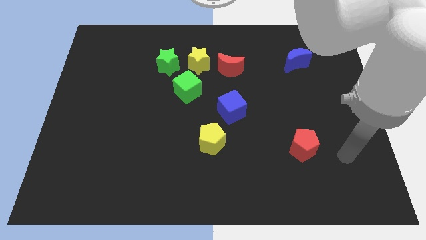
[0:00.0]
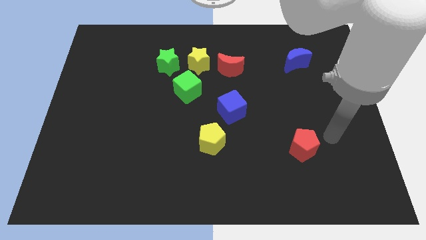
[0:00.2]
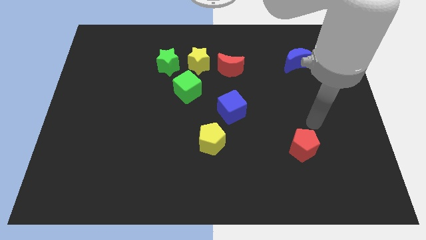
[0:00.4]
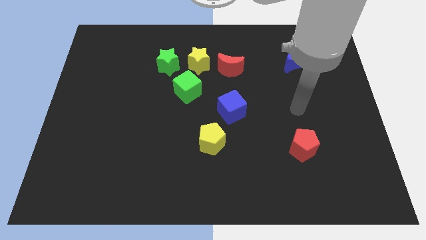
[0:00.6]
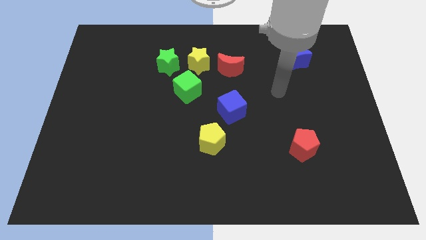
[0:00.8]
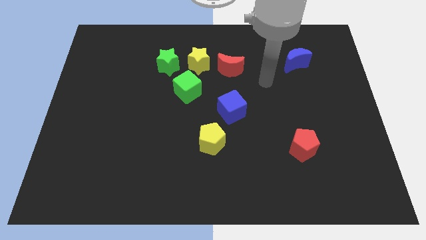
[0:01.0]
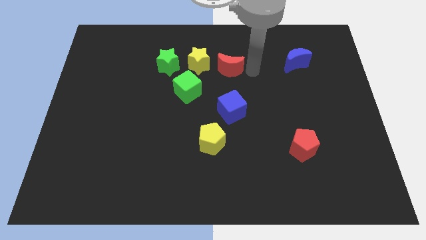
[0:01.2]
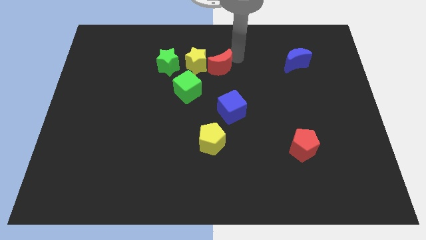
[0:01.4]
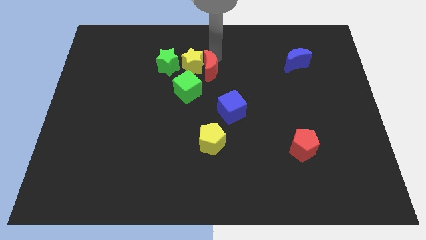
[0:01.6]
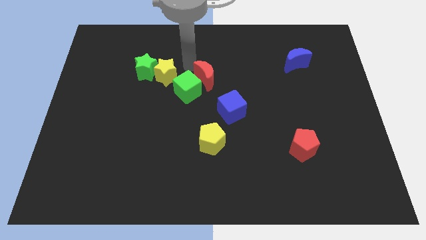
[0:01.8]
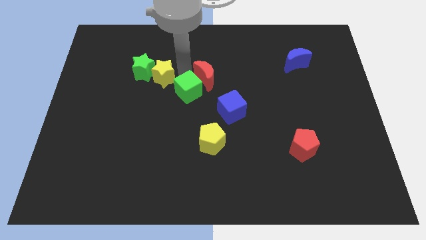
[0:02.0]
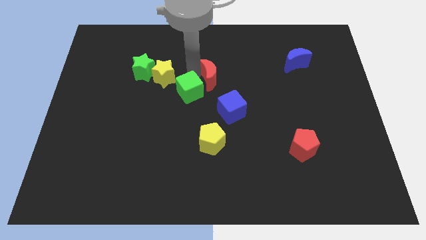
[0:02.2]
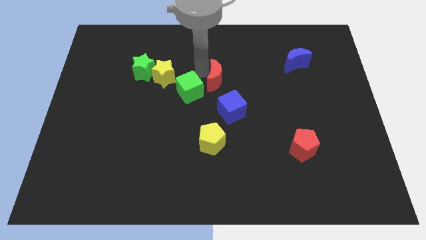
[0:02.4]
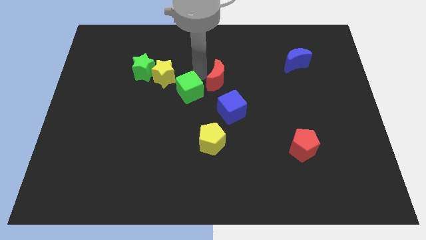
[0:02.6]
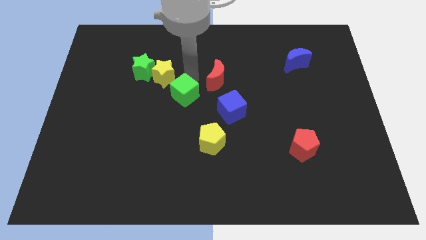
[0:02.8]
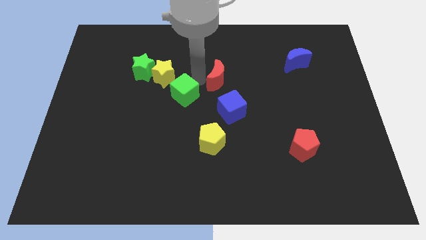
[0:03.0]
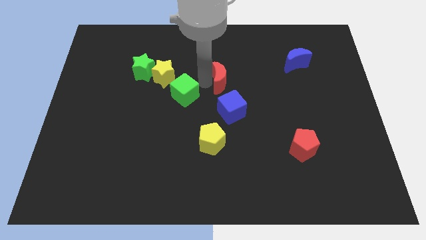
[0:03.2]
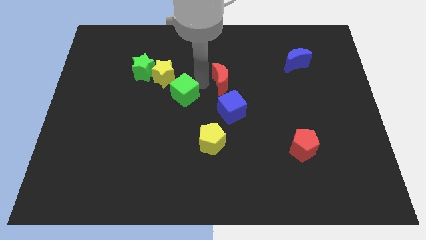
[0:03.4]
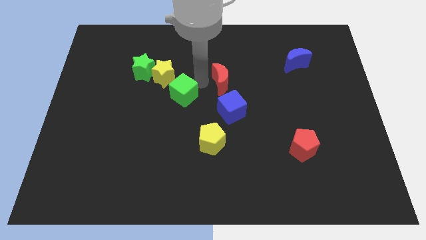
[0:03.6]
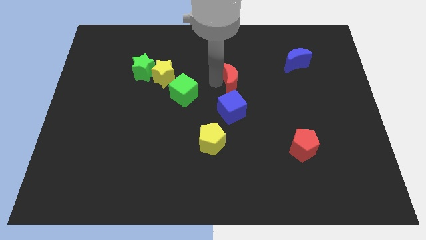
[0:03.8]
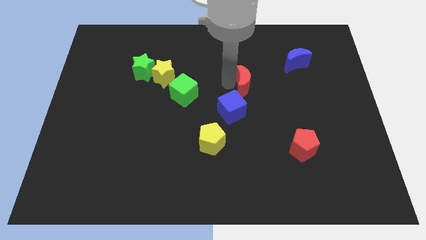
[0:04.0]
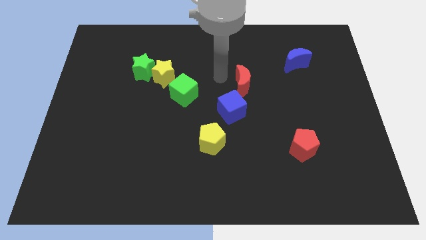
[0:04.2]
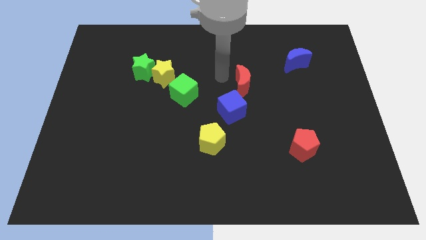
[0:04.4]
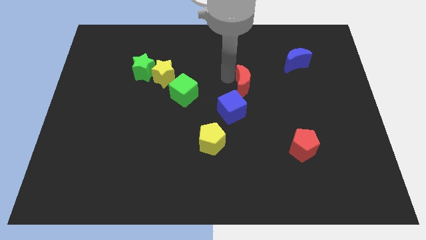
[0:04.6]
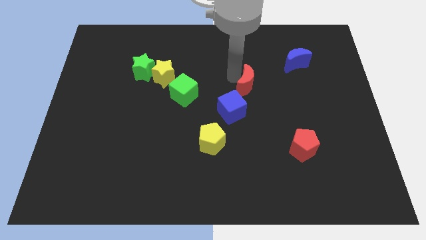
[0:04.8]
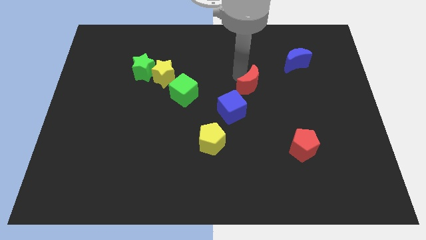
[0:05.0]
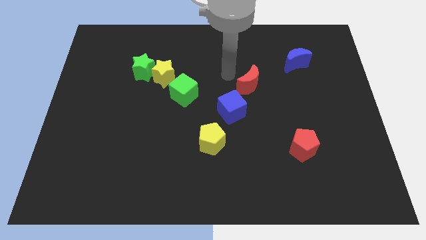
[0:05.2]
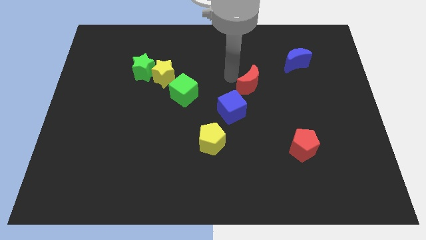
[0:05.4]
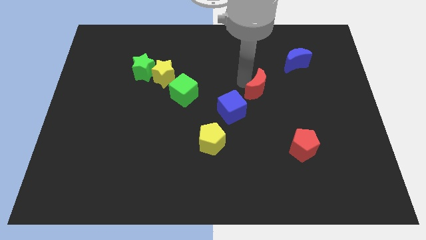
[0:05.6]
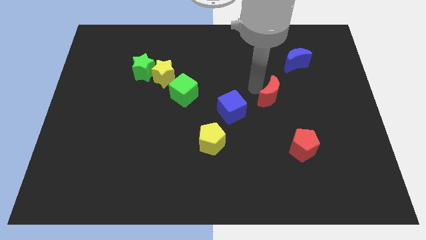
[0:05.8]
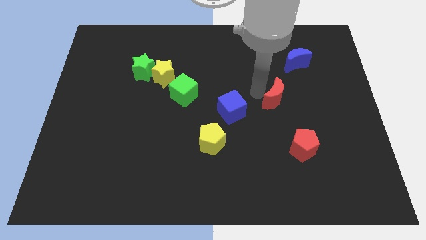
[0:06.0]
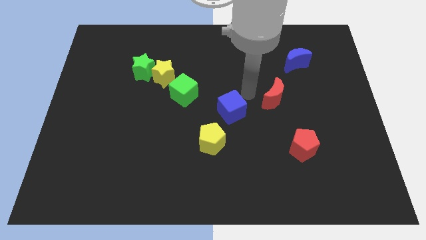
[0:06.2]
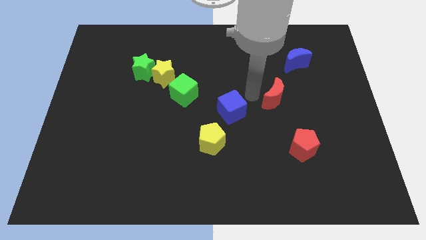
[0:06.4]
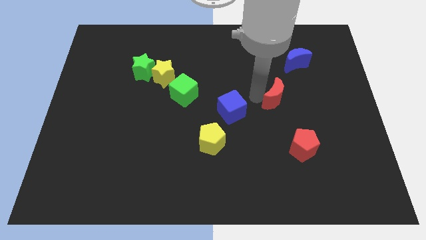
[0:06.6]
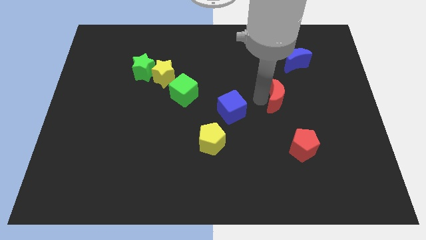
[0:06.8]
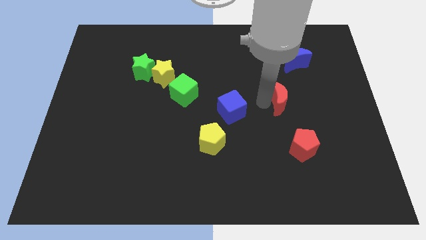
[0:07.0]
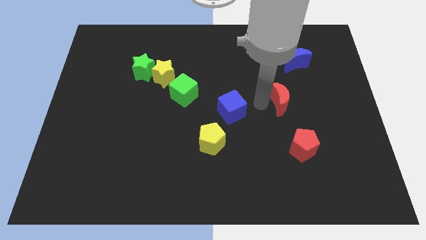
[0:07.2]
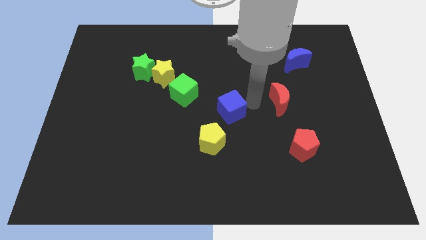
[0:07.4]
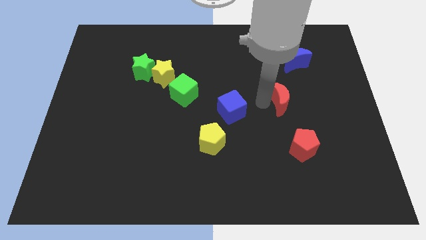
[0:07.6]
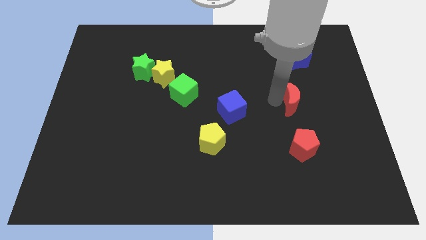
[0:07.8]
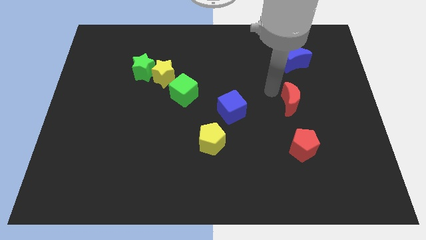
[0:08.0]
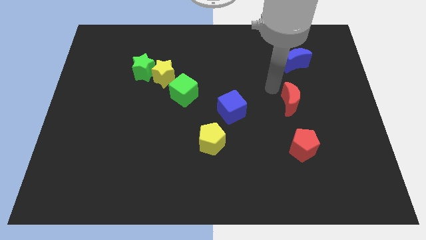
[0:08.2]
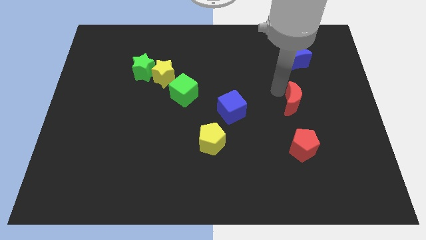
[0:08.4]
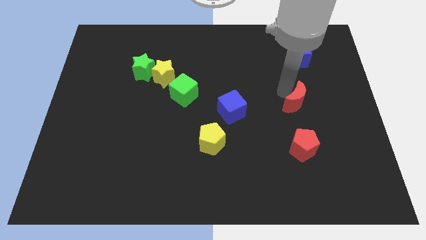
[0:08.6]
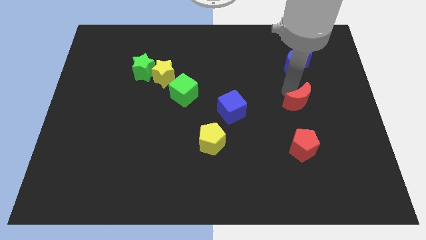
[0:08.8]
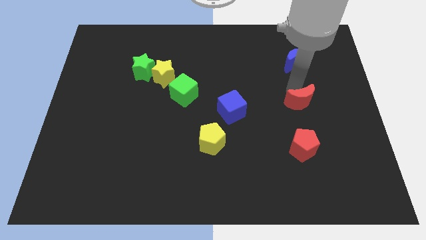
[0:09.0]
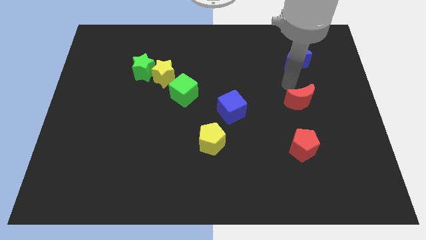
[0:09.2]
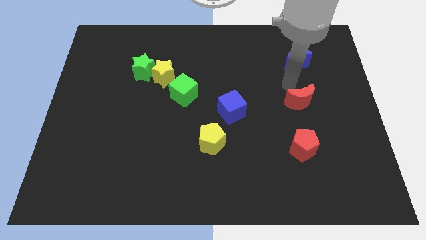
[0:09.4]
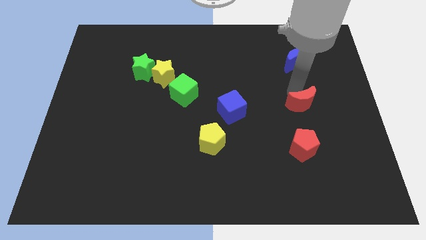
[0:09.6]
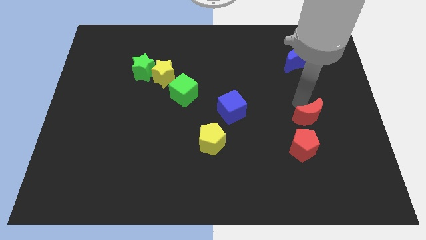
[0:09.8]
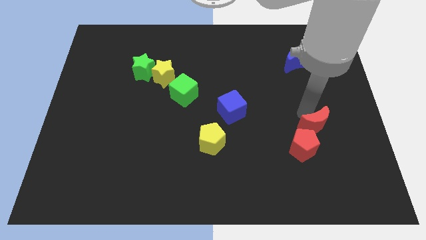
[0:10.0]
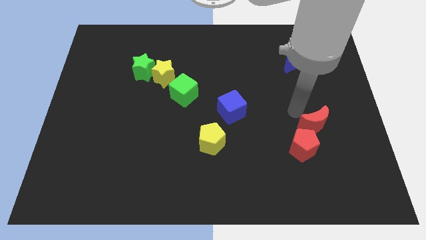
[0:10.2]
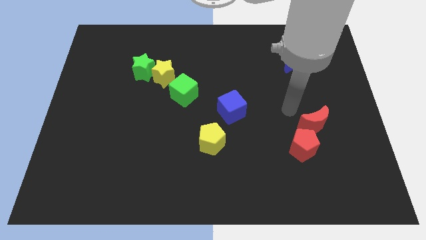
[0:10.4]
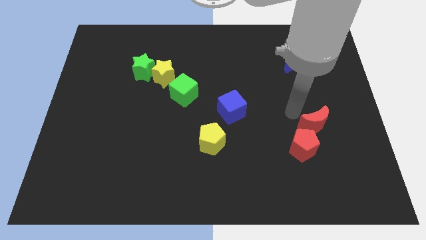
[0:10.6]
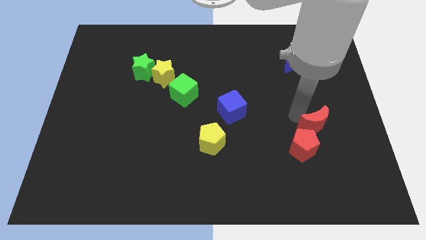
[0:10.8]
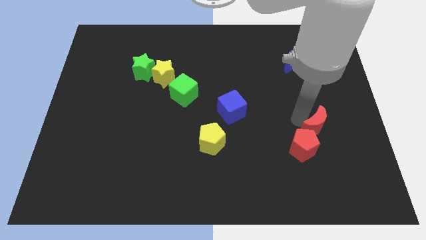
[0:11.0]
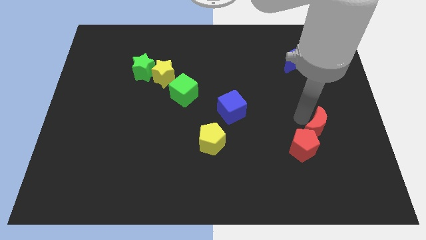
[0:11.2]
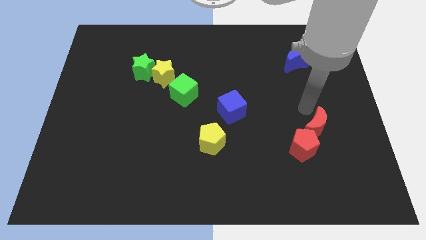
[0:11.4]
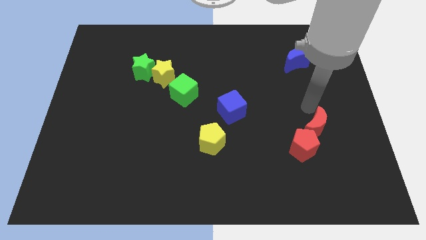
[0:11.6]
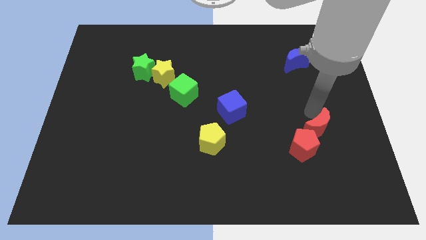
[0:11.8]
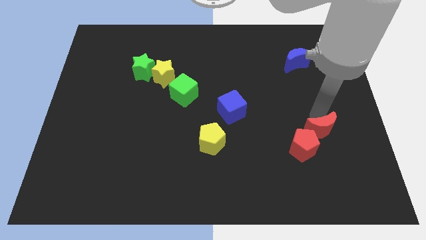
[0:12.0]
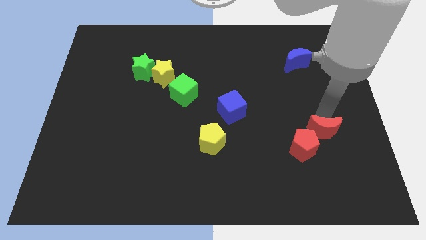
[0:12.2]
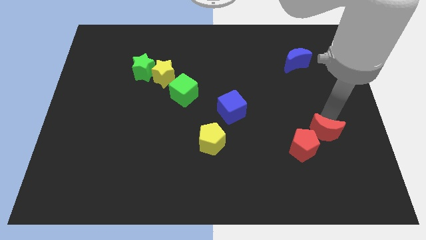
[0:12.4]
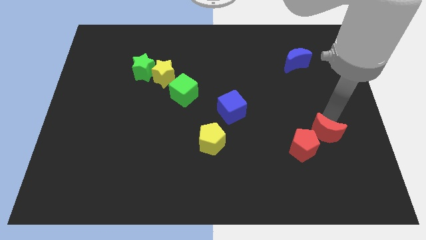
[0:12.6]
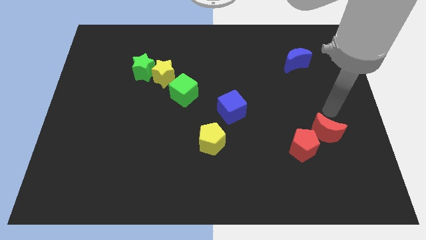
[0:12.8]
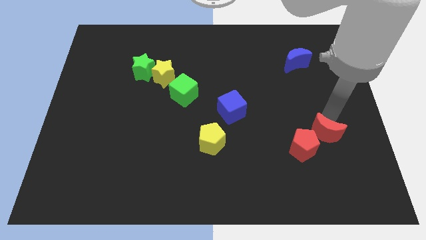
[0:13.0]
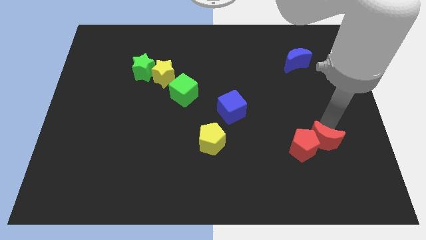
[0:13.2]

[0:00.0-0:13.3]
push the red moon to the bottom right of the red pentagon
